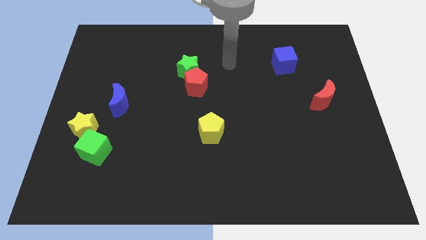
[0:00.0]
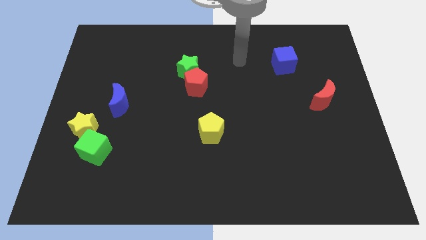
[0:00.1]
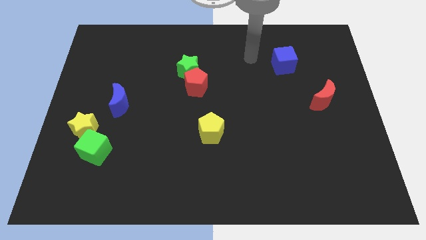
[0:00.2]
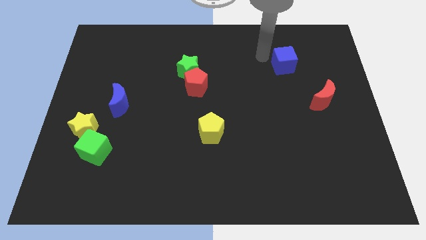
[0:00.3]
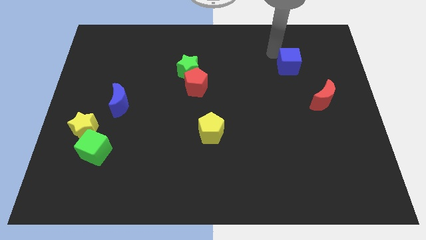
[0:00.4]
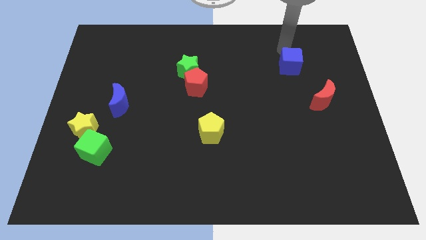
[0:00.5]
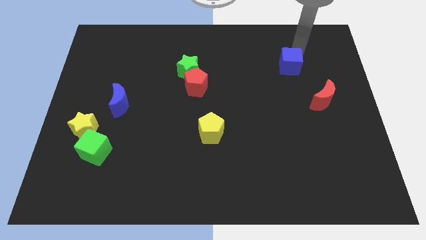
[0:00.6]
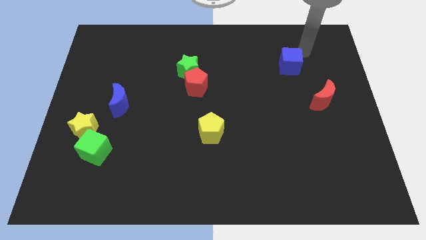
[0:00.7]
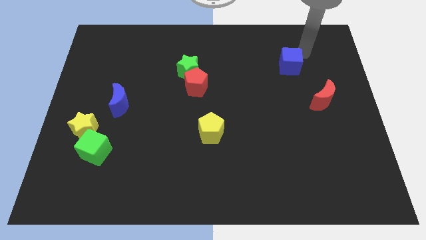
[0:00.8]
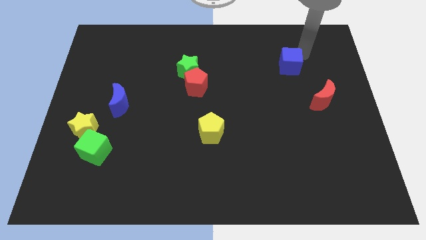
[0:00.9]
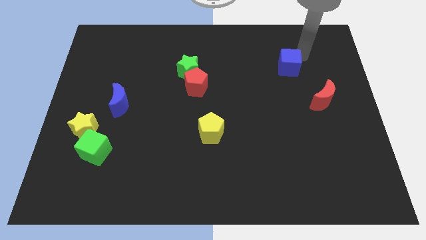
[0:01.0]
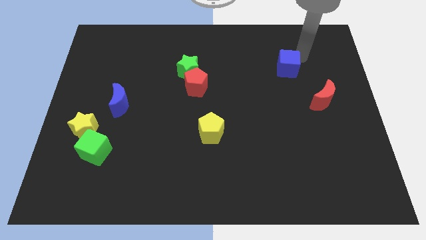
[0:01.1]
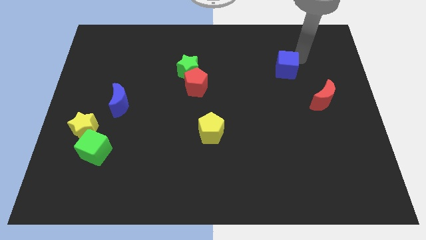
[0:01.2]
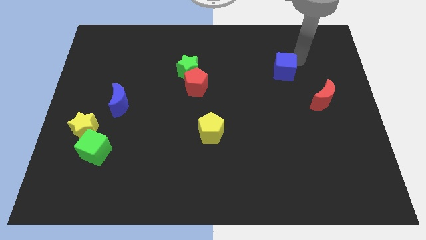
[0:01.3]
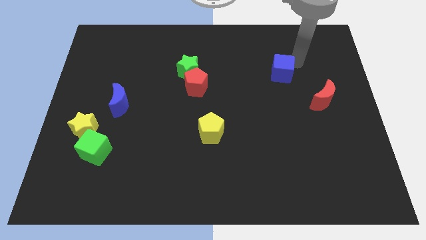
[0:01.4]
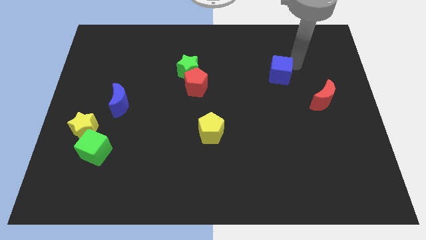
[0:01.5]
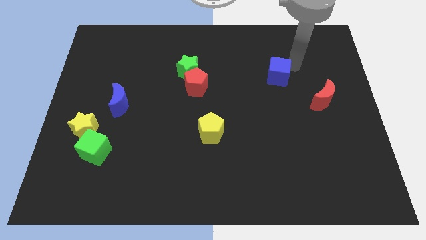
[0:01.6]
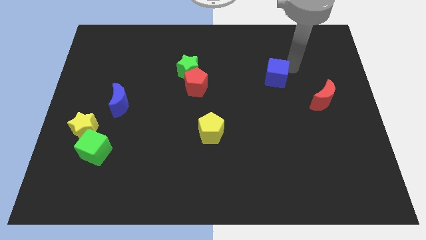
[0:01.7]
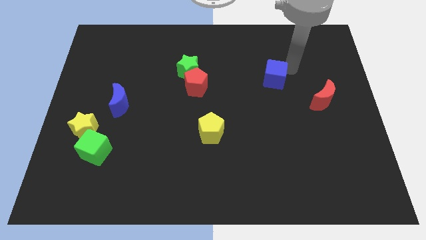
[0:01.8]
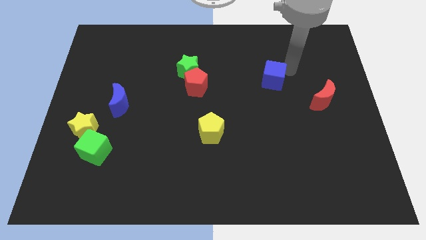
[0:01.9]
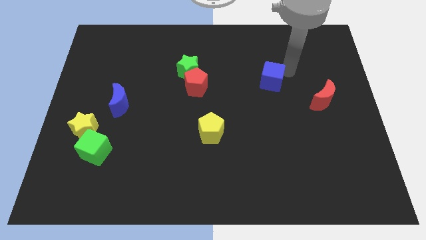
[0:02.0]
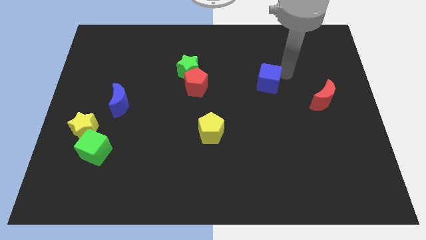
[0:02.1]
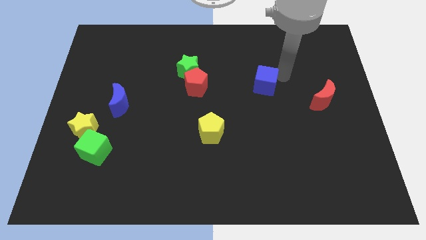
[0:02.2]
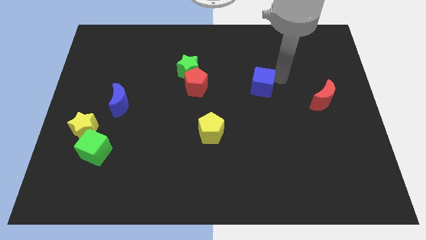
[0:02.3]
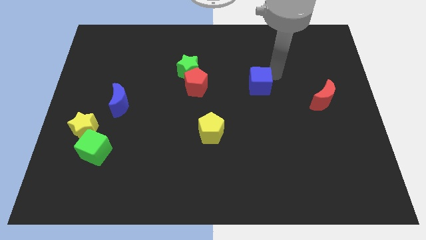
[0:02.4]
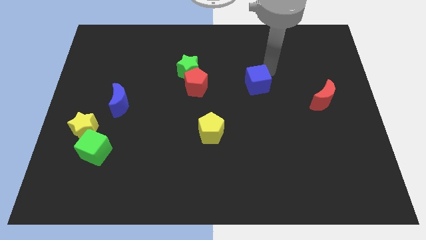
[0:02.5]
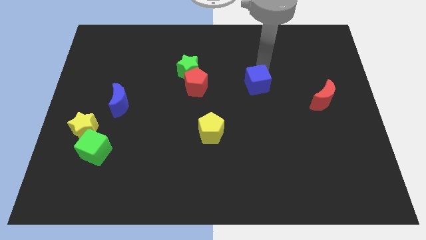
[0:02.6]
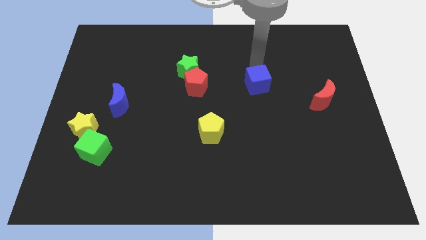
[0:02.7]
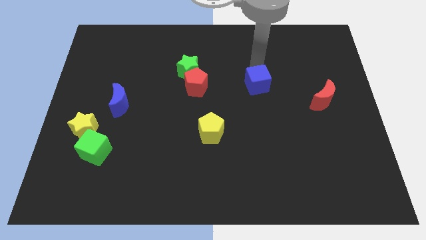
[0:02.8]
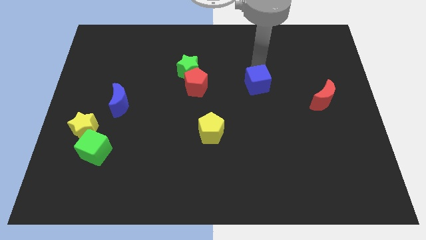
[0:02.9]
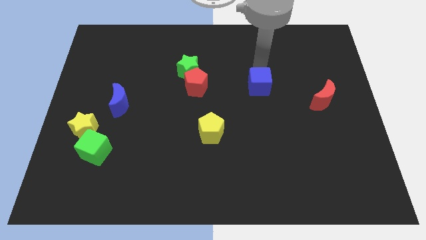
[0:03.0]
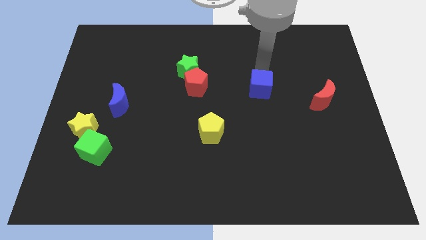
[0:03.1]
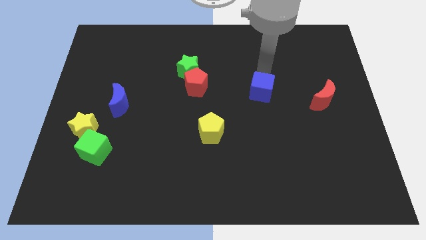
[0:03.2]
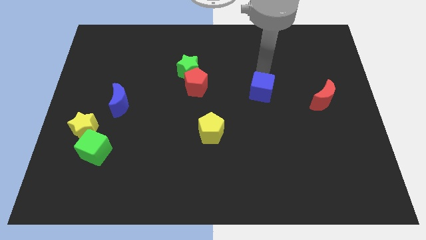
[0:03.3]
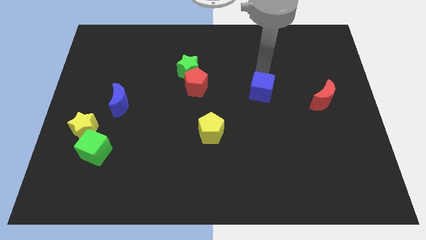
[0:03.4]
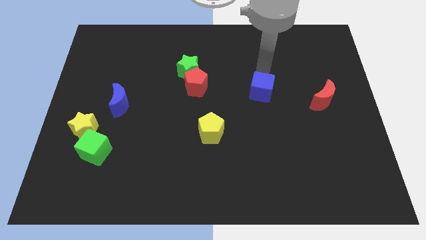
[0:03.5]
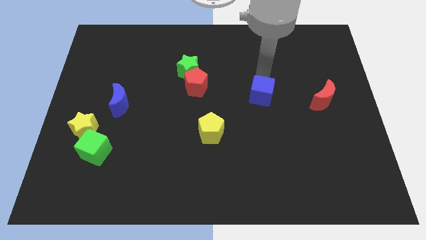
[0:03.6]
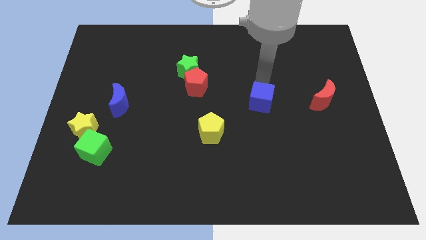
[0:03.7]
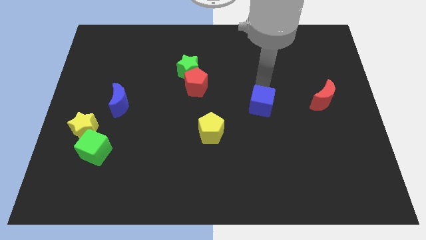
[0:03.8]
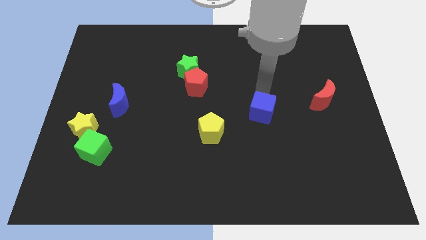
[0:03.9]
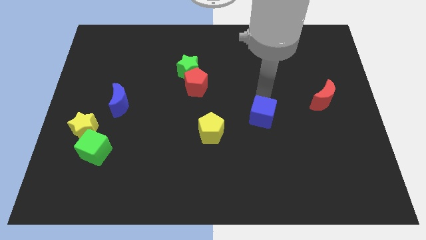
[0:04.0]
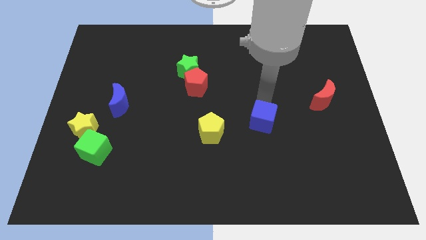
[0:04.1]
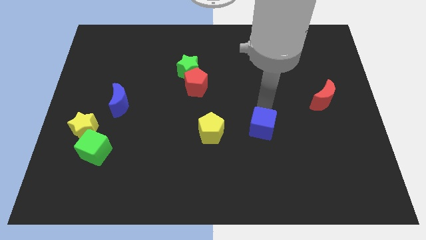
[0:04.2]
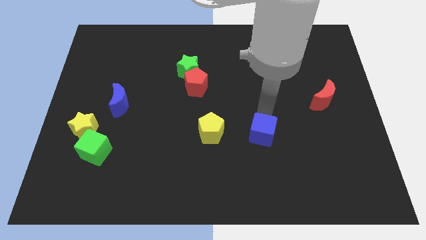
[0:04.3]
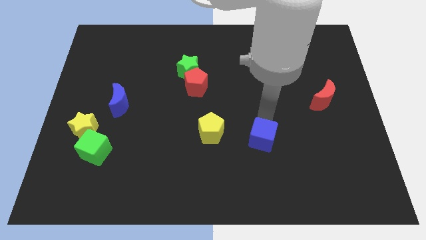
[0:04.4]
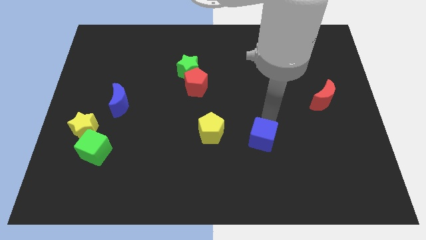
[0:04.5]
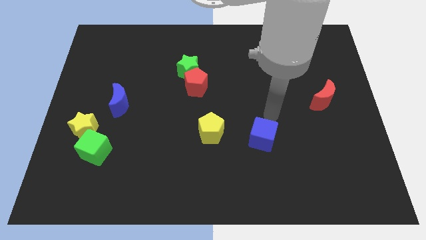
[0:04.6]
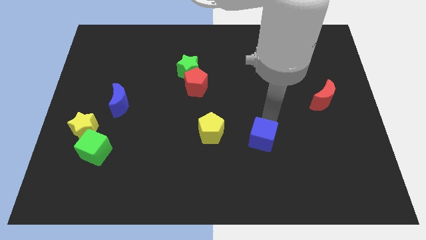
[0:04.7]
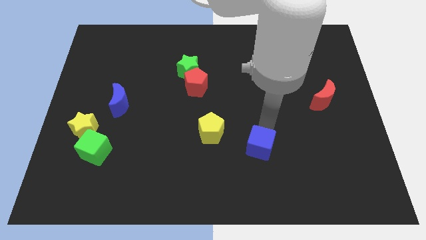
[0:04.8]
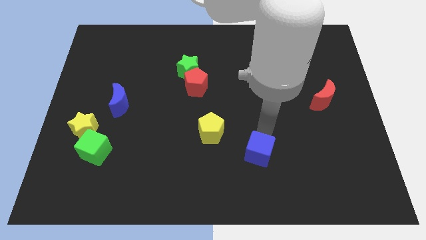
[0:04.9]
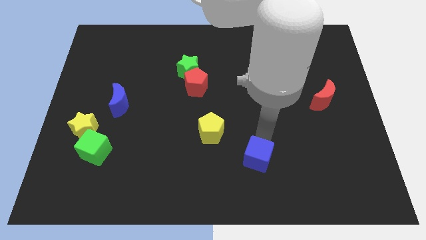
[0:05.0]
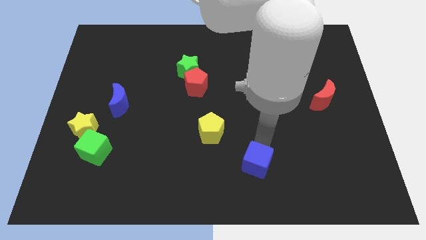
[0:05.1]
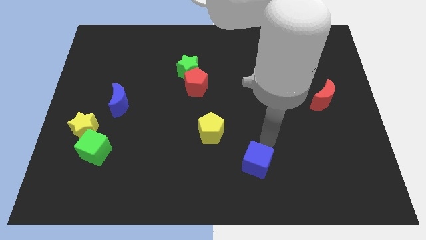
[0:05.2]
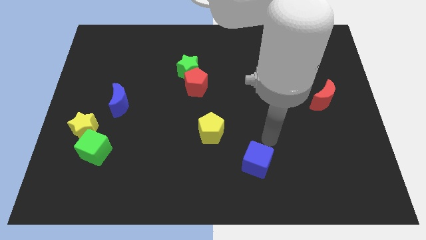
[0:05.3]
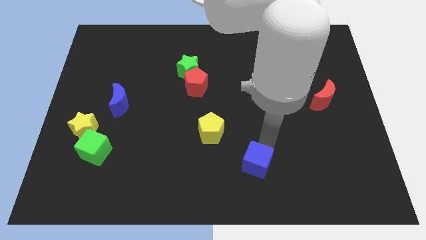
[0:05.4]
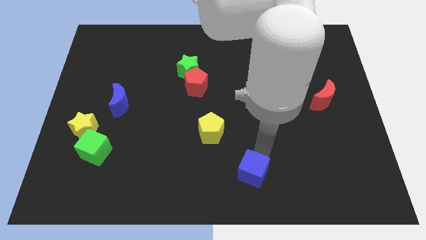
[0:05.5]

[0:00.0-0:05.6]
put the blue cube to the bottom side

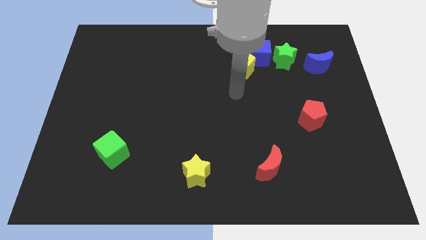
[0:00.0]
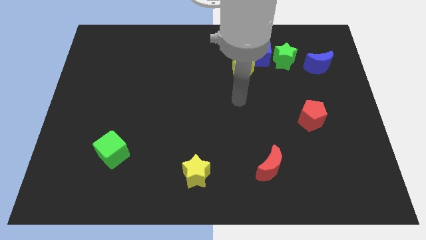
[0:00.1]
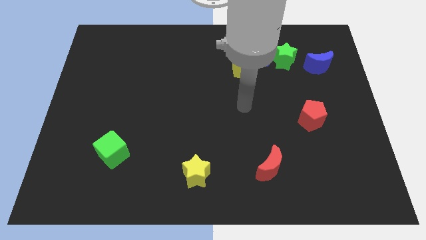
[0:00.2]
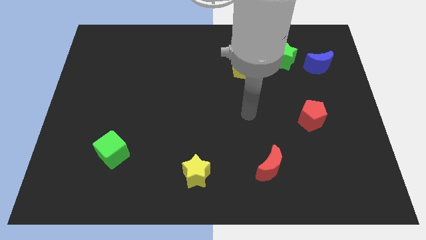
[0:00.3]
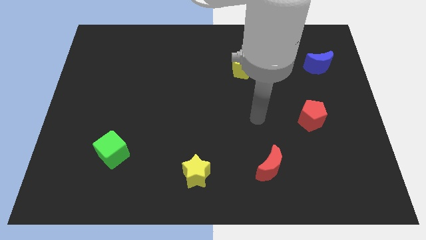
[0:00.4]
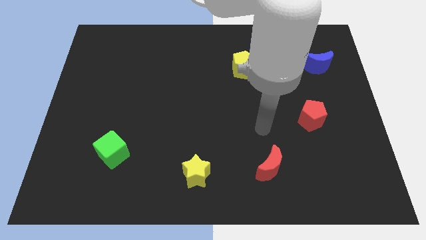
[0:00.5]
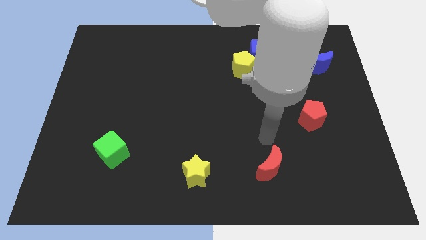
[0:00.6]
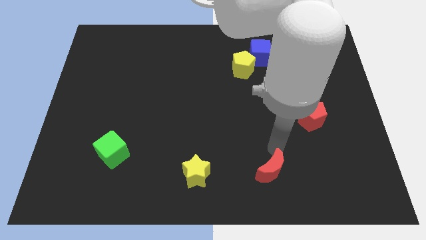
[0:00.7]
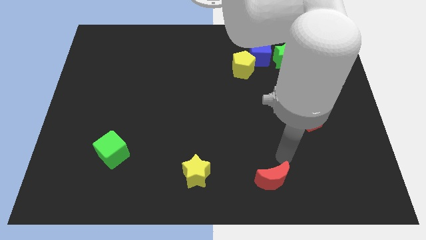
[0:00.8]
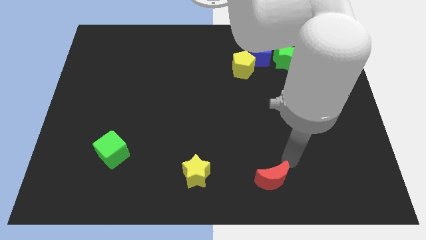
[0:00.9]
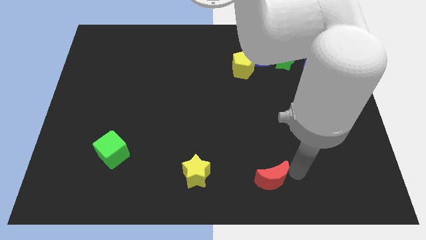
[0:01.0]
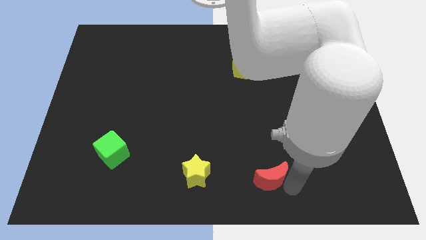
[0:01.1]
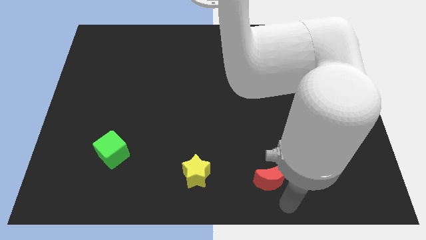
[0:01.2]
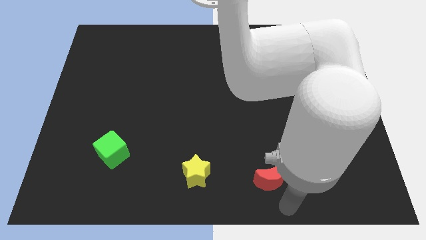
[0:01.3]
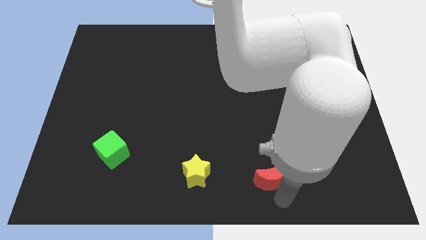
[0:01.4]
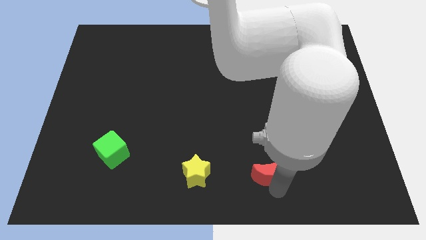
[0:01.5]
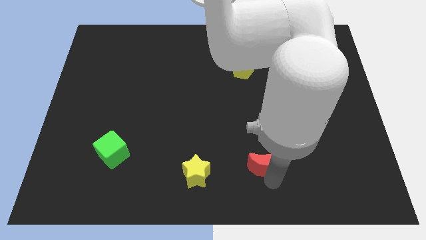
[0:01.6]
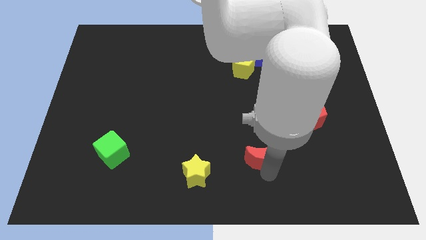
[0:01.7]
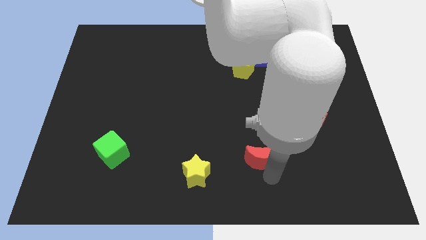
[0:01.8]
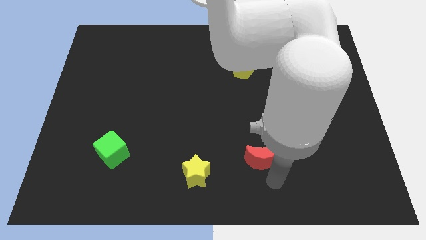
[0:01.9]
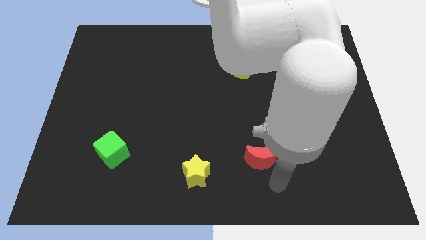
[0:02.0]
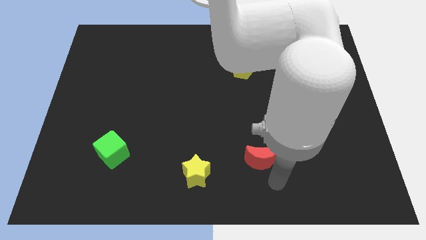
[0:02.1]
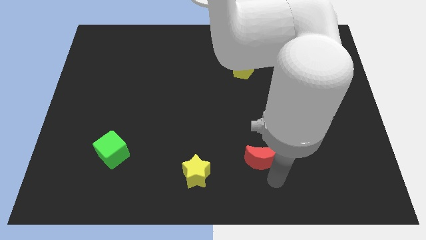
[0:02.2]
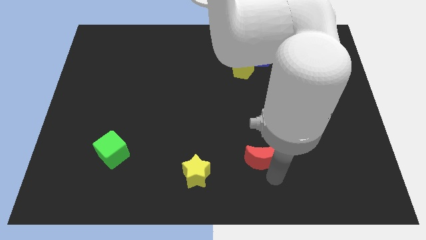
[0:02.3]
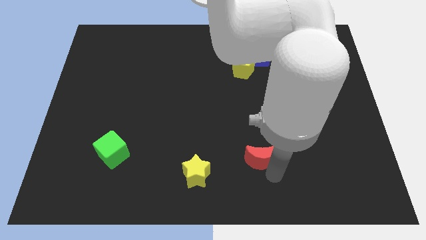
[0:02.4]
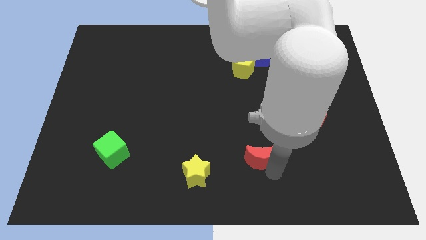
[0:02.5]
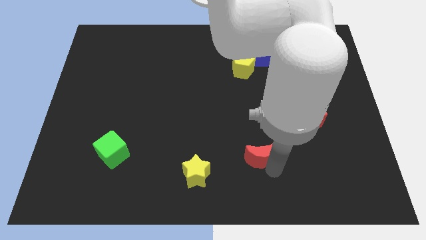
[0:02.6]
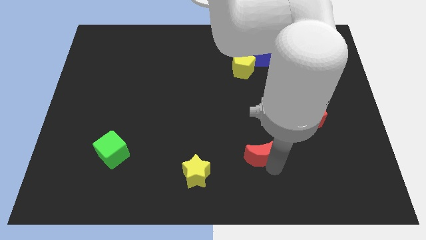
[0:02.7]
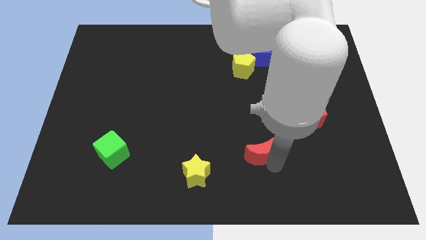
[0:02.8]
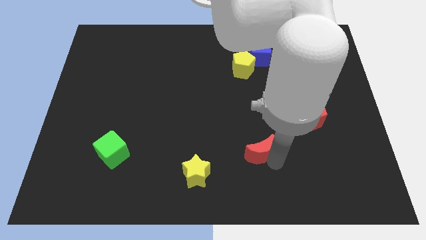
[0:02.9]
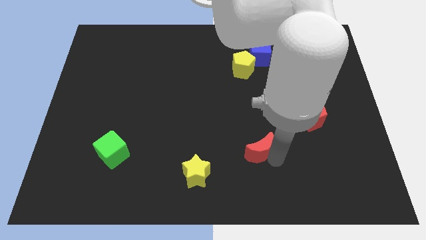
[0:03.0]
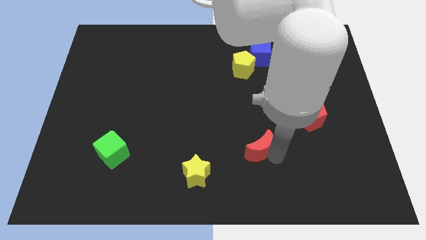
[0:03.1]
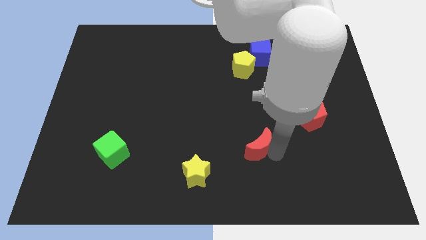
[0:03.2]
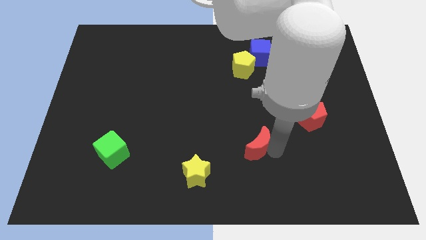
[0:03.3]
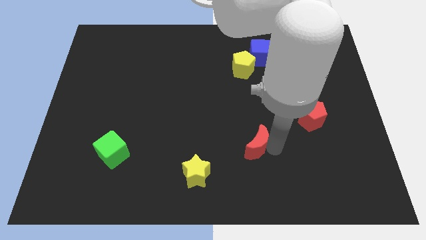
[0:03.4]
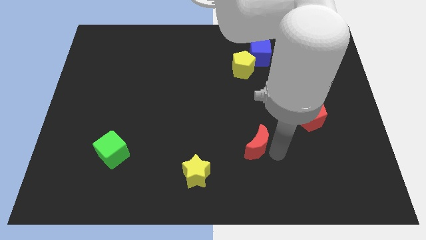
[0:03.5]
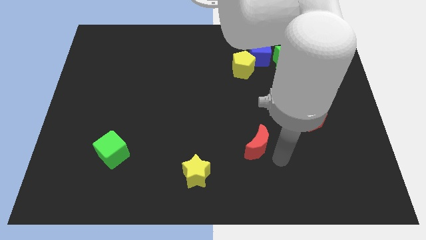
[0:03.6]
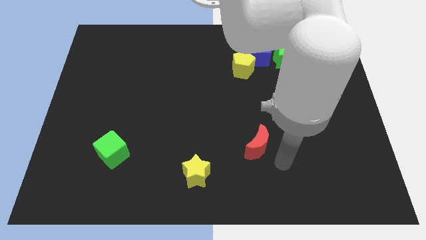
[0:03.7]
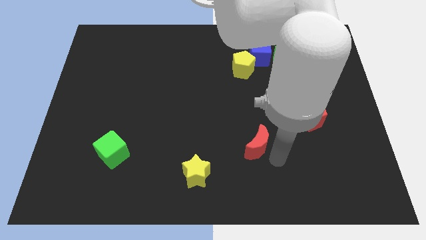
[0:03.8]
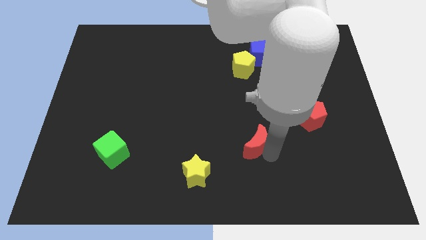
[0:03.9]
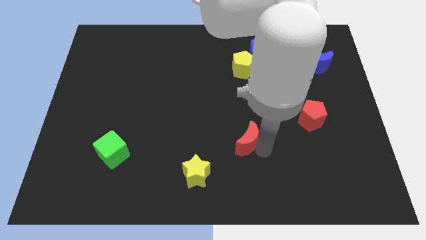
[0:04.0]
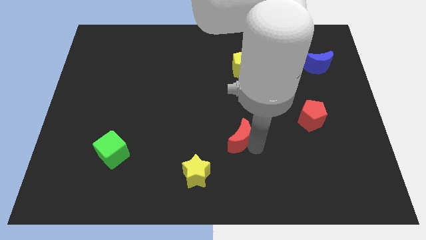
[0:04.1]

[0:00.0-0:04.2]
put the red moon to the middle
